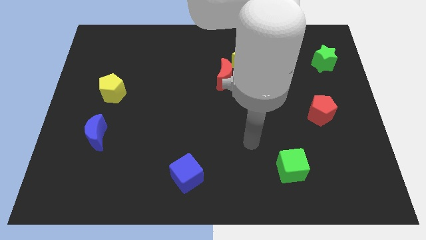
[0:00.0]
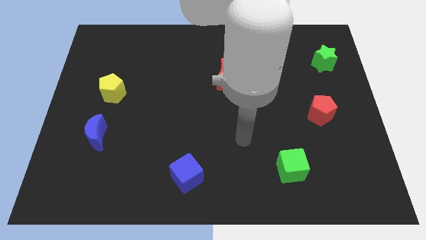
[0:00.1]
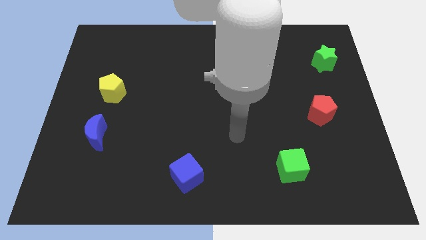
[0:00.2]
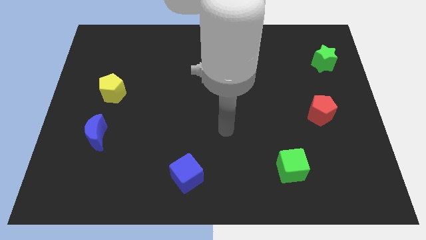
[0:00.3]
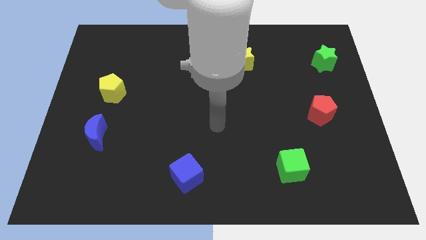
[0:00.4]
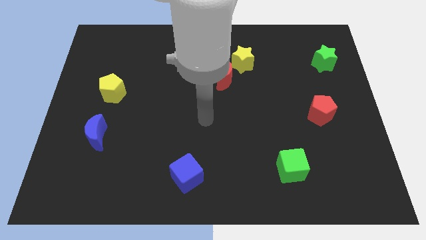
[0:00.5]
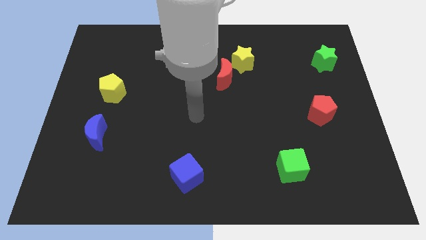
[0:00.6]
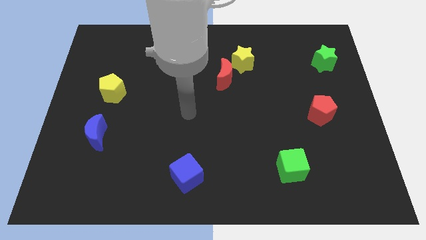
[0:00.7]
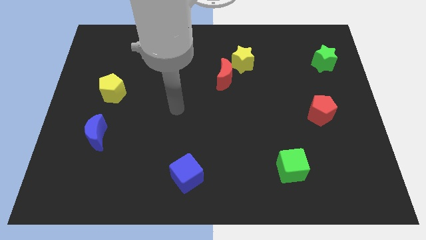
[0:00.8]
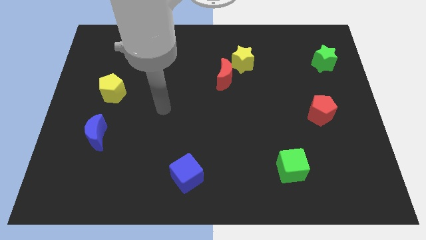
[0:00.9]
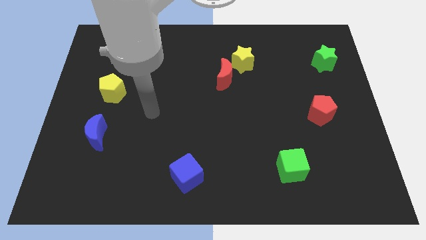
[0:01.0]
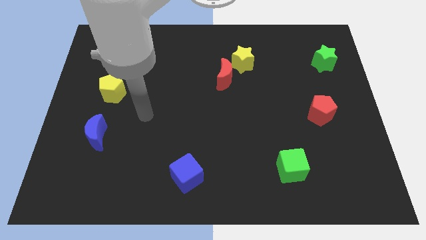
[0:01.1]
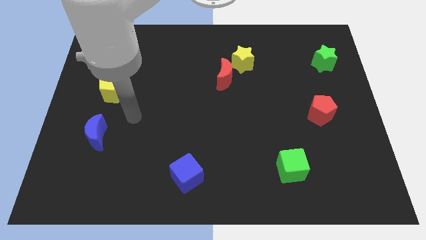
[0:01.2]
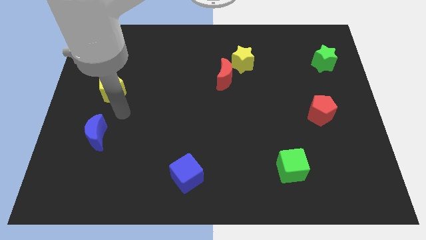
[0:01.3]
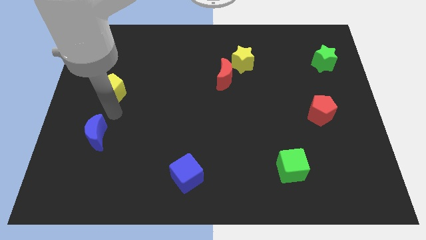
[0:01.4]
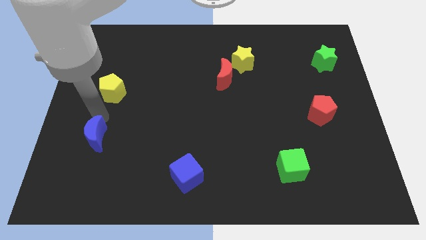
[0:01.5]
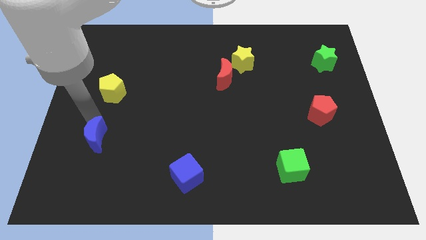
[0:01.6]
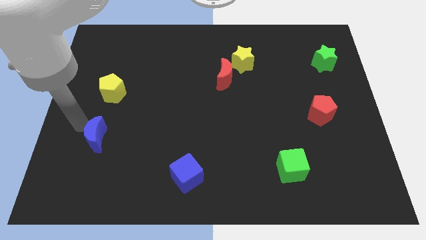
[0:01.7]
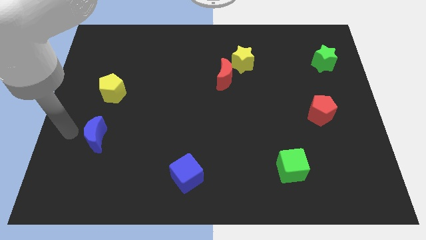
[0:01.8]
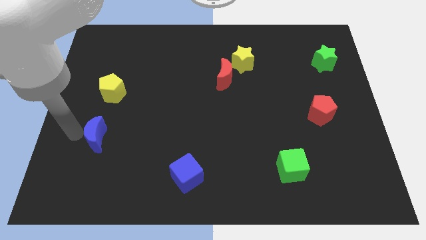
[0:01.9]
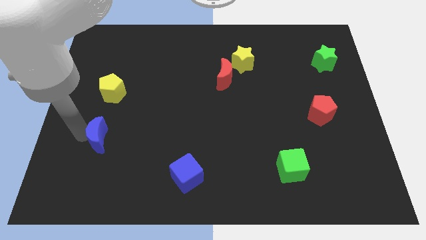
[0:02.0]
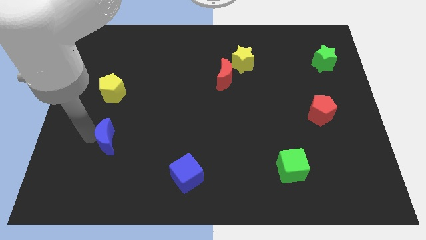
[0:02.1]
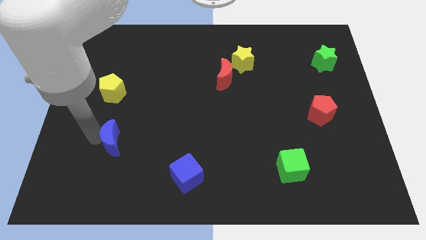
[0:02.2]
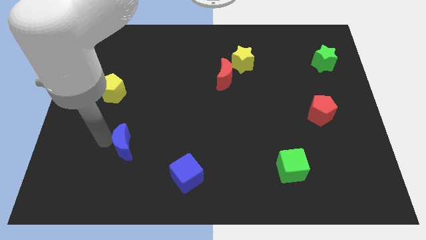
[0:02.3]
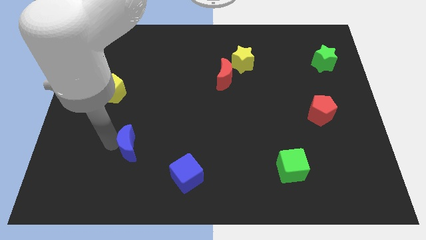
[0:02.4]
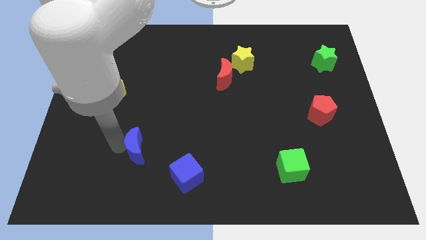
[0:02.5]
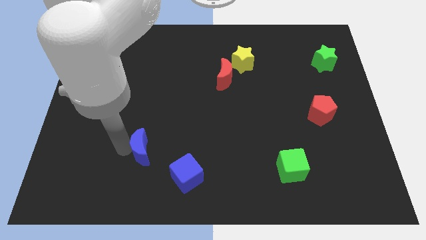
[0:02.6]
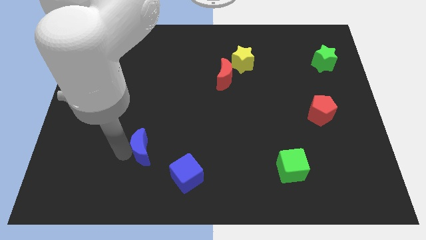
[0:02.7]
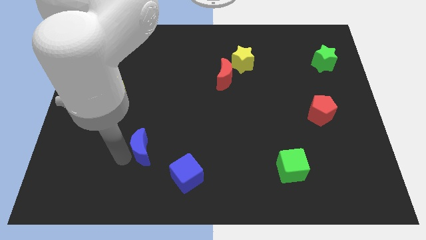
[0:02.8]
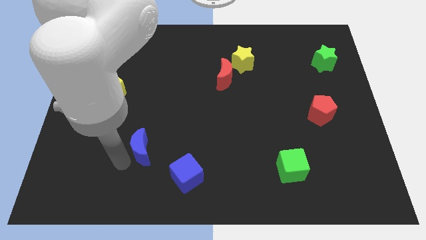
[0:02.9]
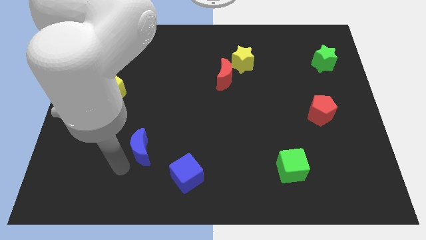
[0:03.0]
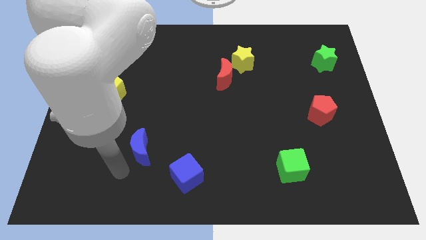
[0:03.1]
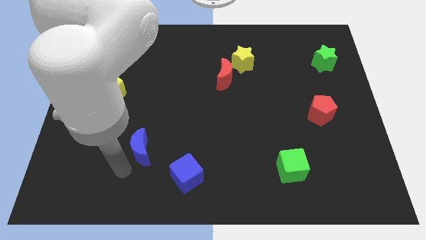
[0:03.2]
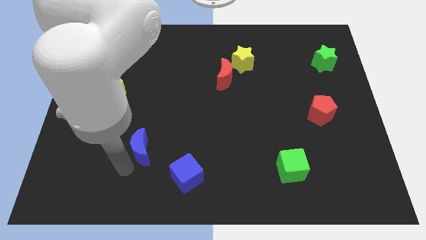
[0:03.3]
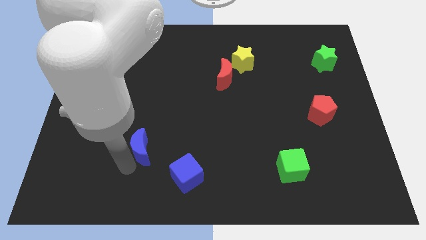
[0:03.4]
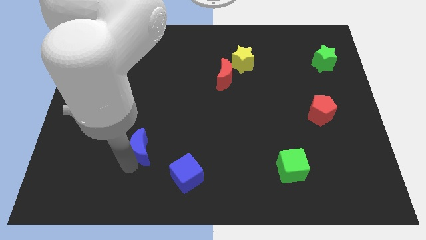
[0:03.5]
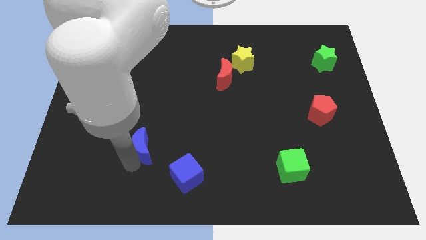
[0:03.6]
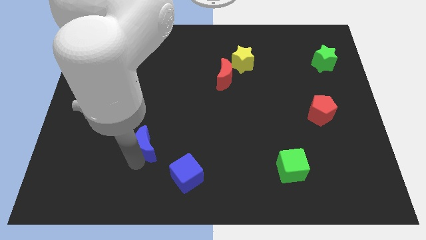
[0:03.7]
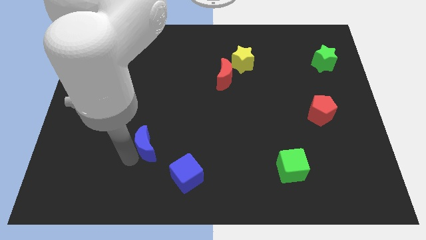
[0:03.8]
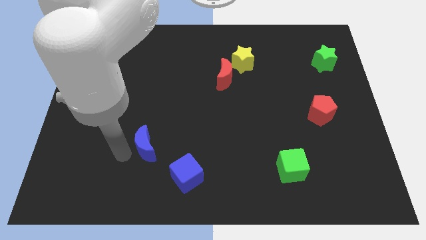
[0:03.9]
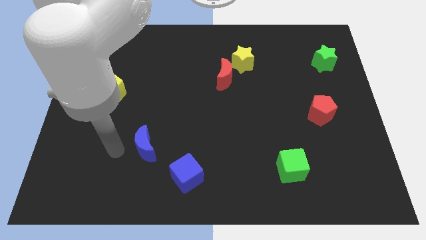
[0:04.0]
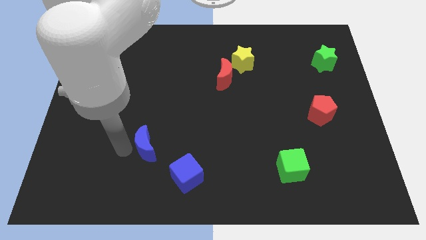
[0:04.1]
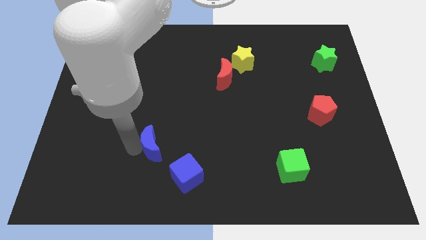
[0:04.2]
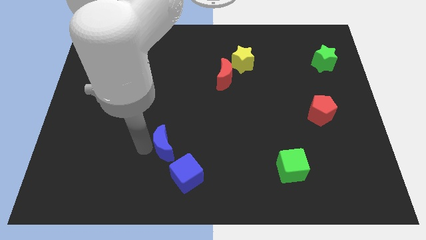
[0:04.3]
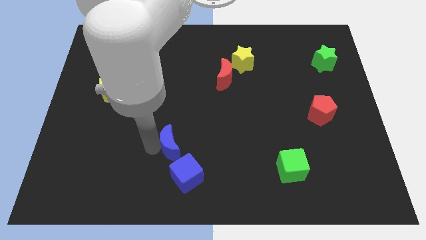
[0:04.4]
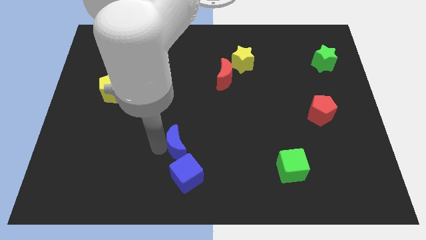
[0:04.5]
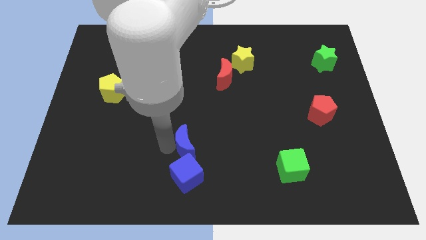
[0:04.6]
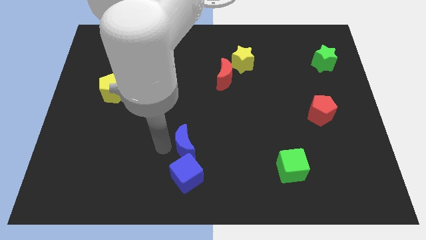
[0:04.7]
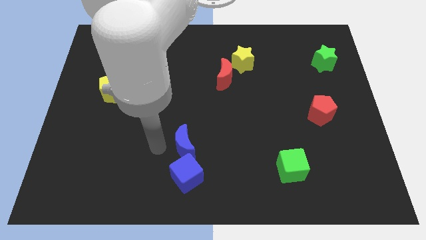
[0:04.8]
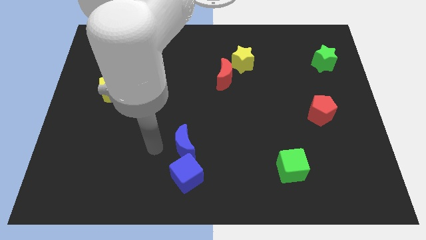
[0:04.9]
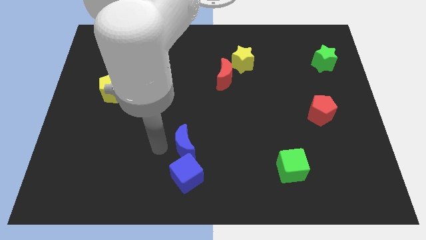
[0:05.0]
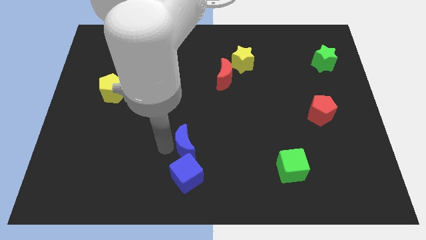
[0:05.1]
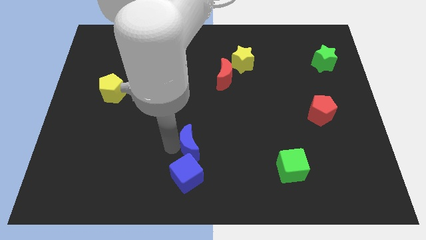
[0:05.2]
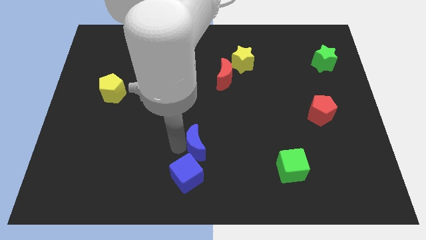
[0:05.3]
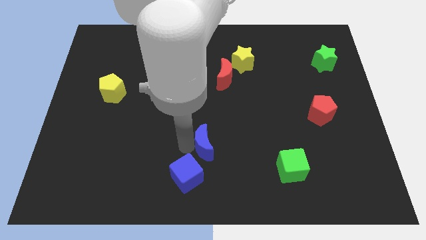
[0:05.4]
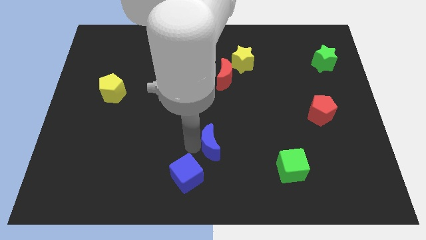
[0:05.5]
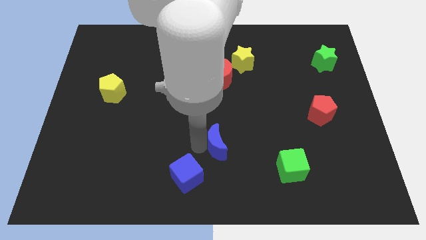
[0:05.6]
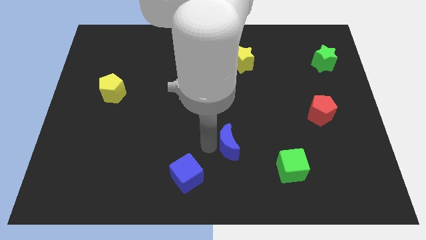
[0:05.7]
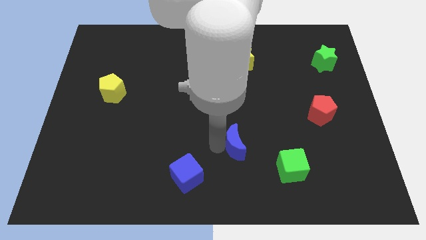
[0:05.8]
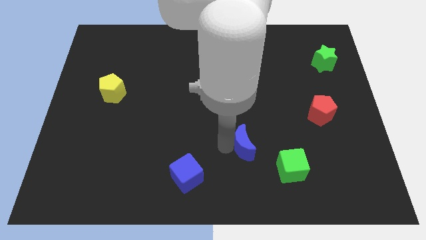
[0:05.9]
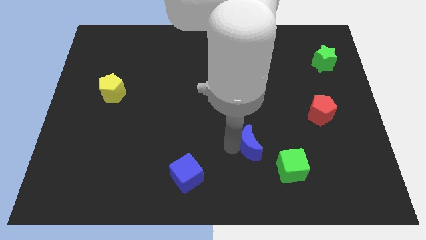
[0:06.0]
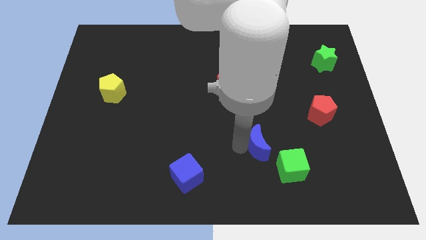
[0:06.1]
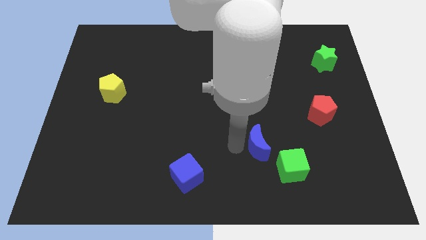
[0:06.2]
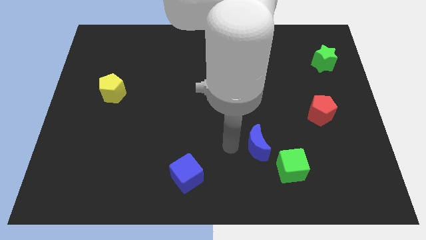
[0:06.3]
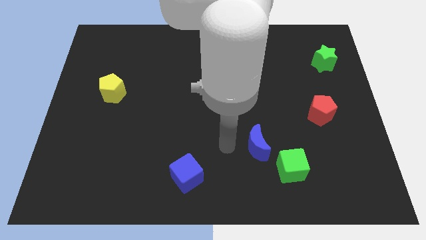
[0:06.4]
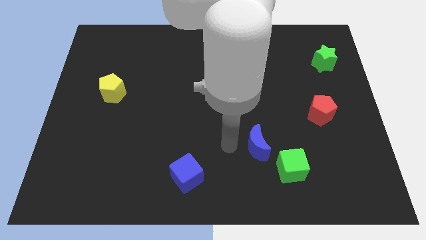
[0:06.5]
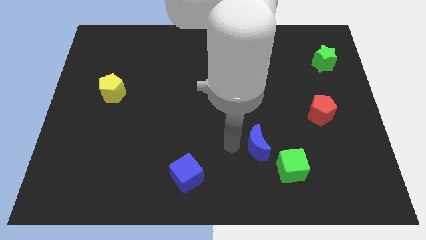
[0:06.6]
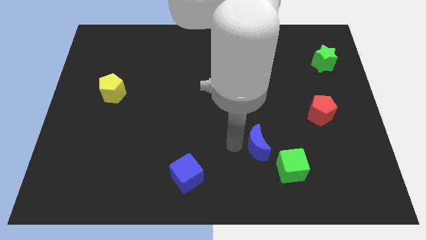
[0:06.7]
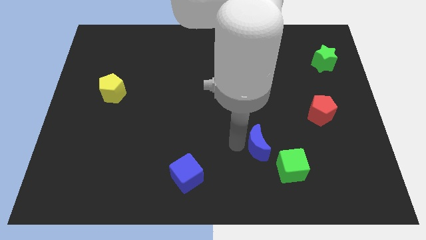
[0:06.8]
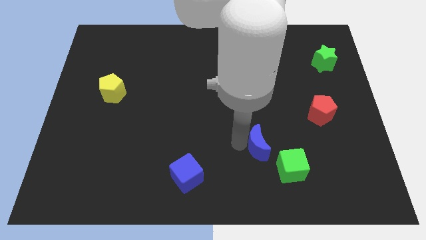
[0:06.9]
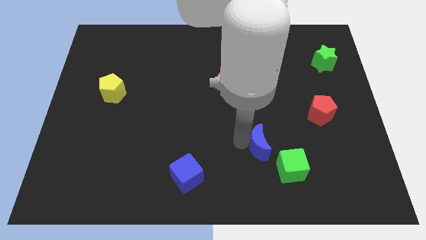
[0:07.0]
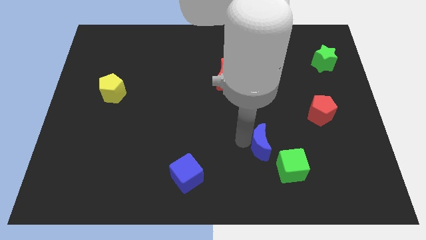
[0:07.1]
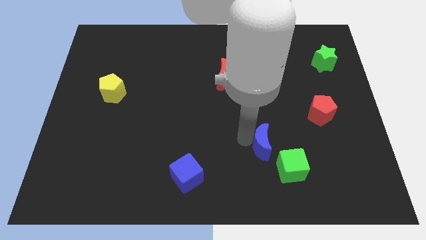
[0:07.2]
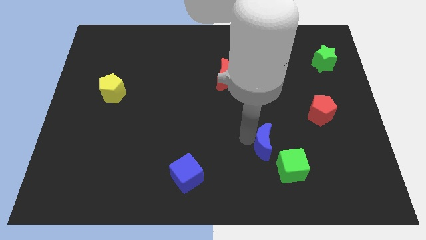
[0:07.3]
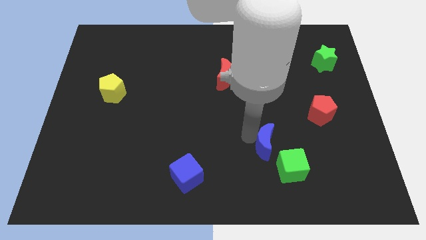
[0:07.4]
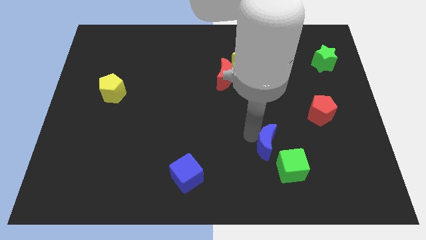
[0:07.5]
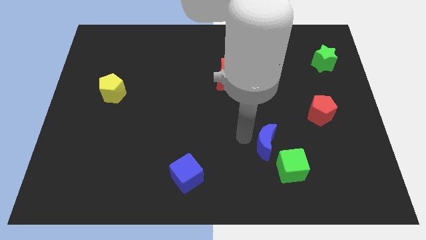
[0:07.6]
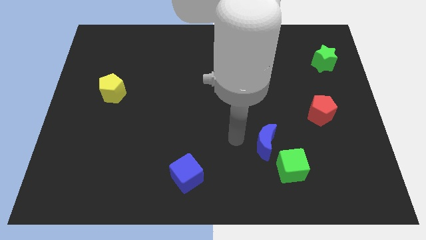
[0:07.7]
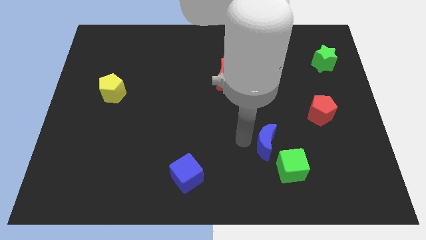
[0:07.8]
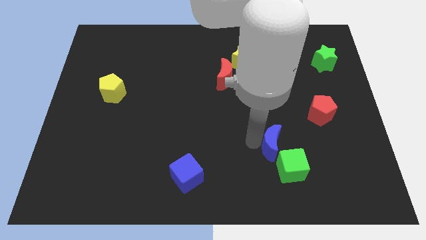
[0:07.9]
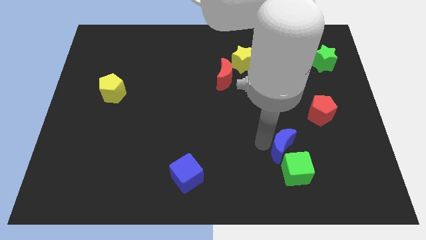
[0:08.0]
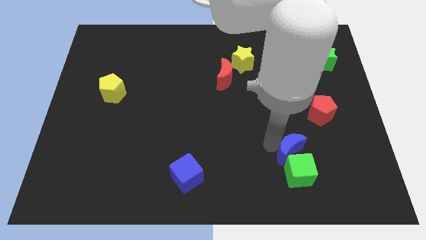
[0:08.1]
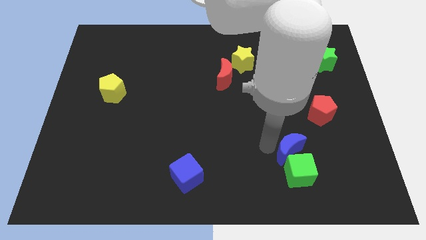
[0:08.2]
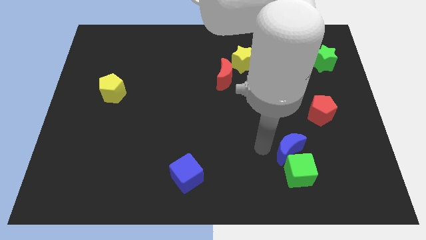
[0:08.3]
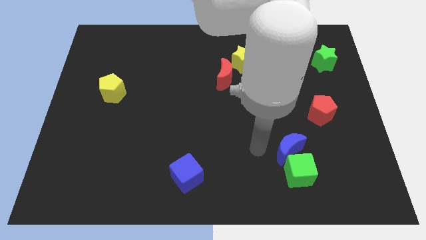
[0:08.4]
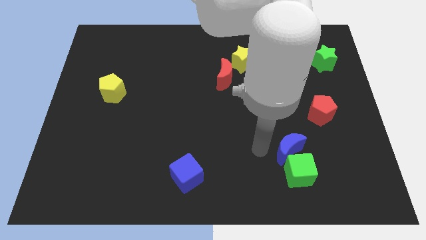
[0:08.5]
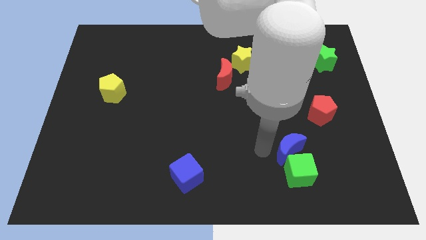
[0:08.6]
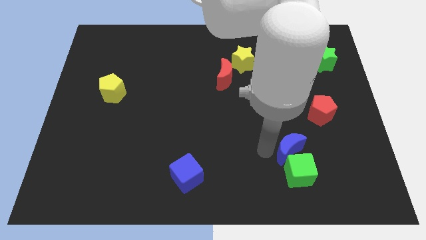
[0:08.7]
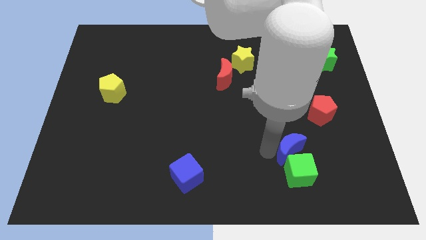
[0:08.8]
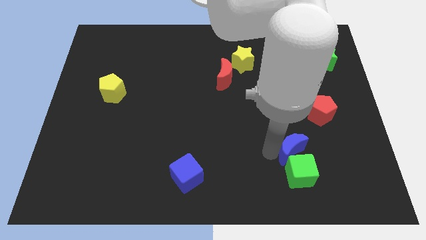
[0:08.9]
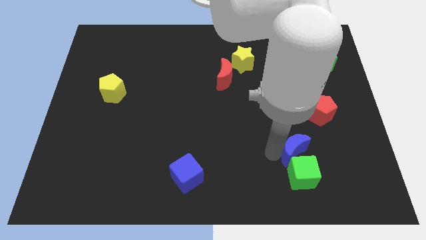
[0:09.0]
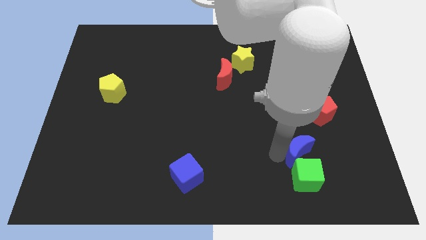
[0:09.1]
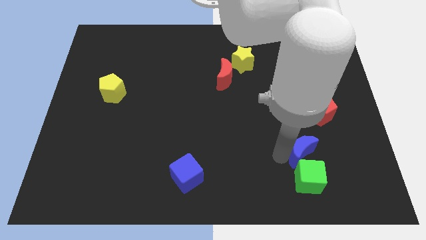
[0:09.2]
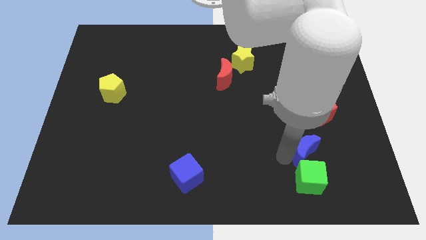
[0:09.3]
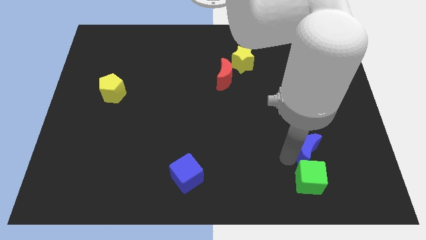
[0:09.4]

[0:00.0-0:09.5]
move the blue moon to the bottom side of the red pentagon
